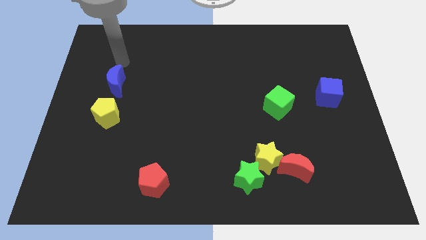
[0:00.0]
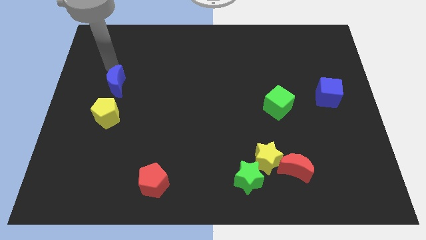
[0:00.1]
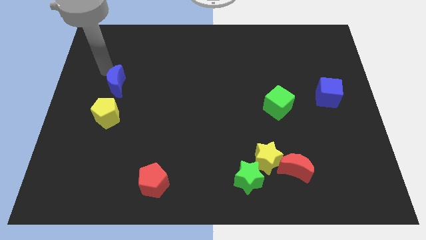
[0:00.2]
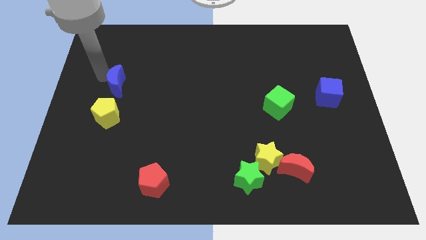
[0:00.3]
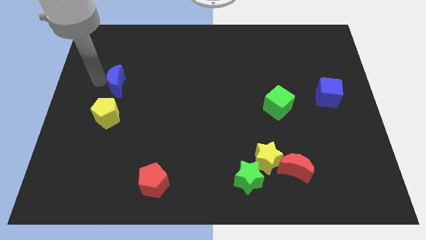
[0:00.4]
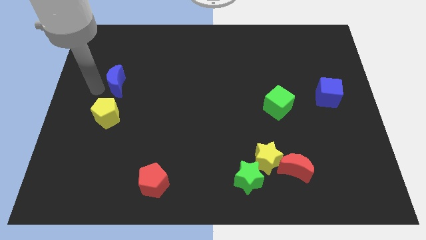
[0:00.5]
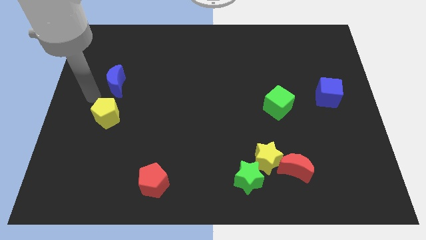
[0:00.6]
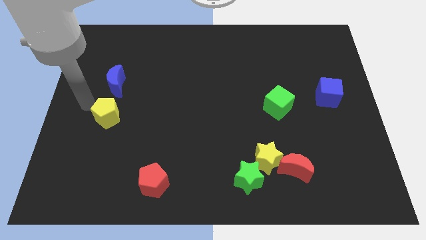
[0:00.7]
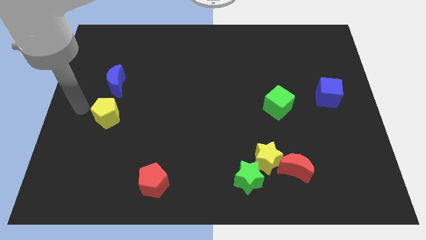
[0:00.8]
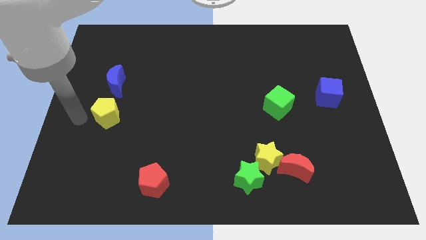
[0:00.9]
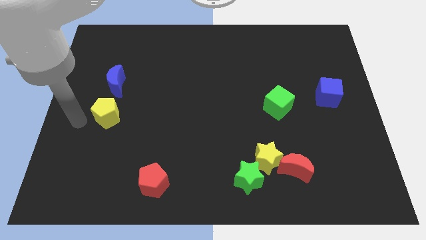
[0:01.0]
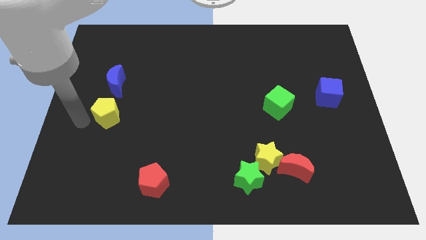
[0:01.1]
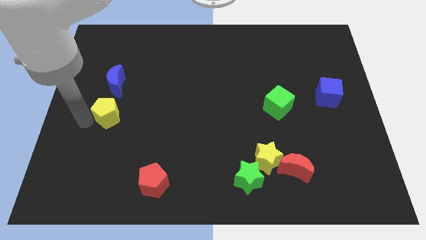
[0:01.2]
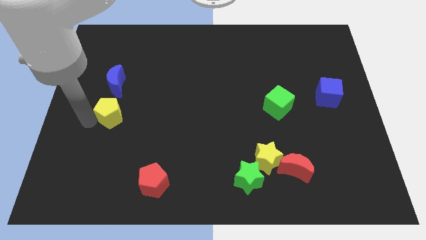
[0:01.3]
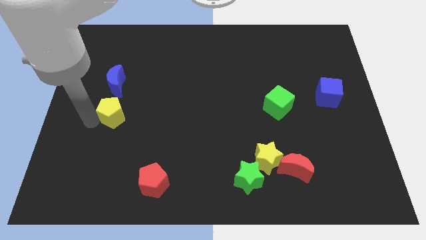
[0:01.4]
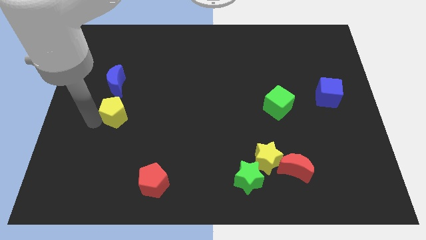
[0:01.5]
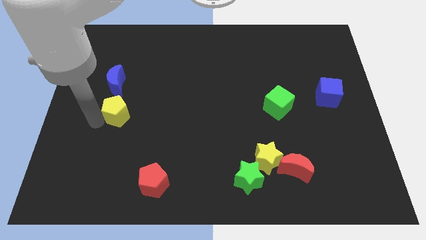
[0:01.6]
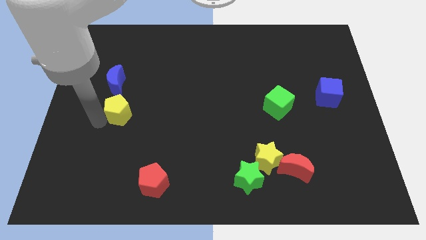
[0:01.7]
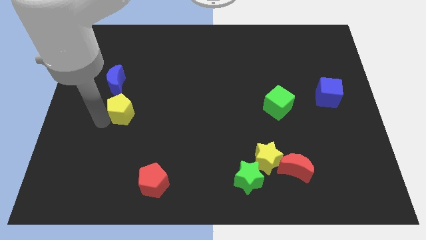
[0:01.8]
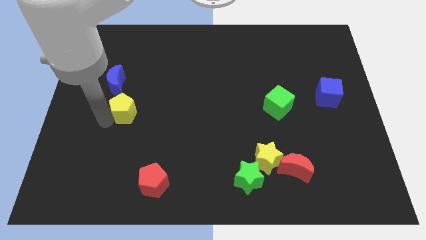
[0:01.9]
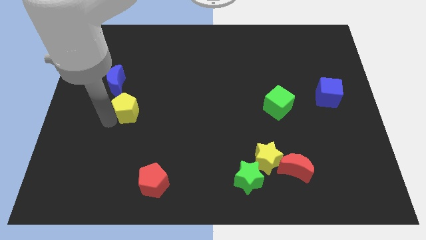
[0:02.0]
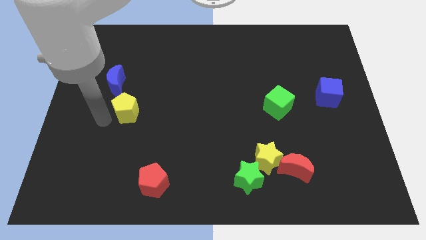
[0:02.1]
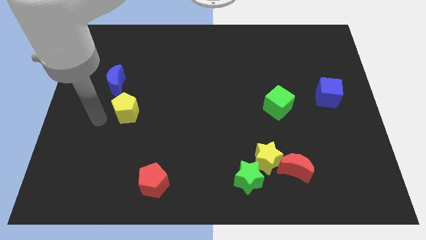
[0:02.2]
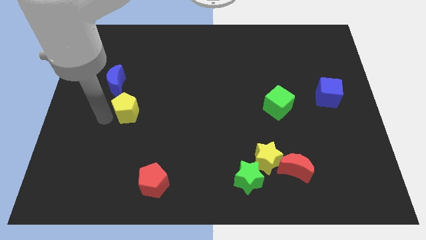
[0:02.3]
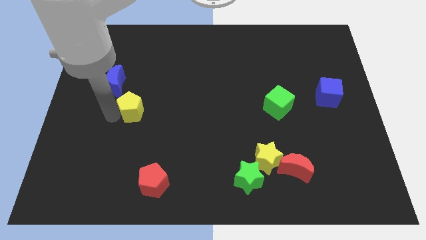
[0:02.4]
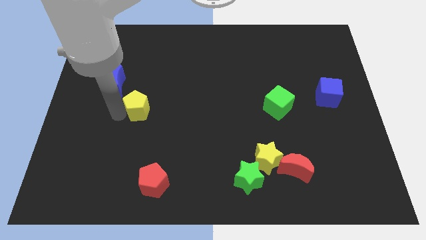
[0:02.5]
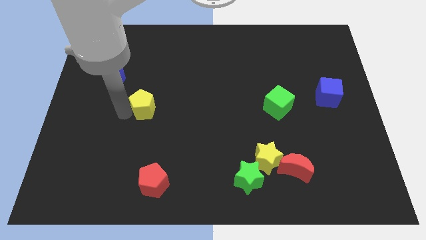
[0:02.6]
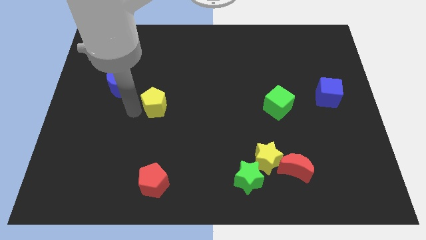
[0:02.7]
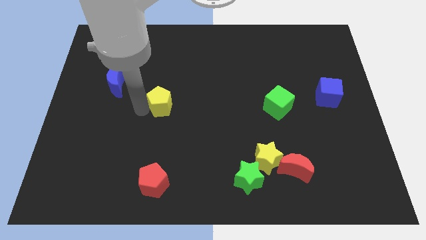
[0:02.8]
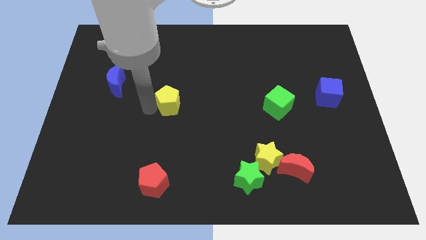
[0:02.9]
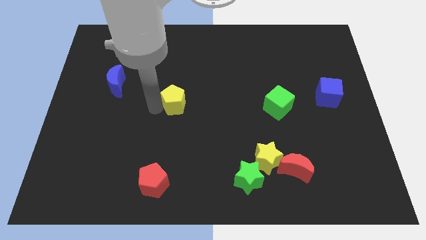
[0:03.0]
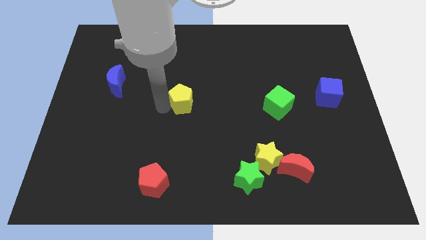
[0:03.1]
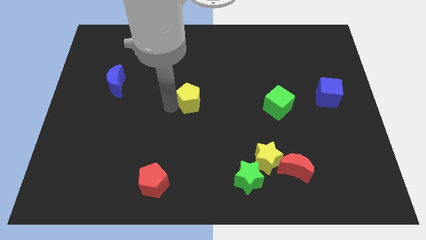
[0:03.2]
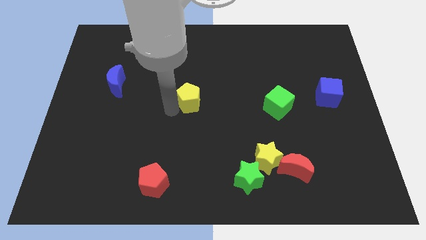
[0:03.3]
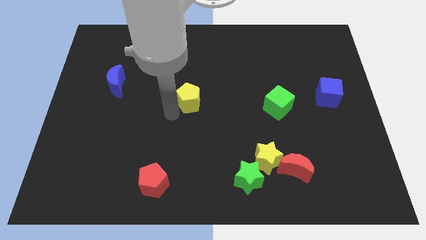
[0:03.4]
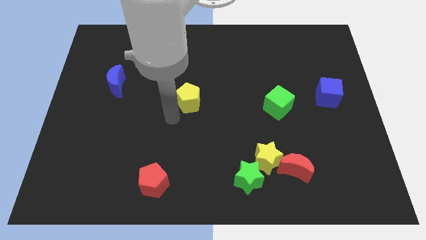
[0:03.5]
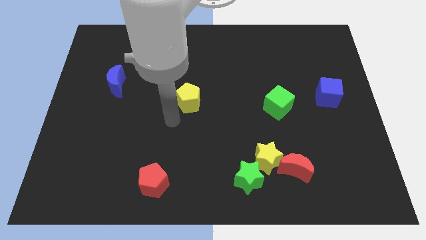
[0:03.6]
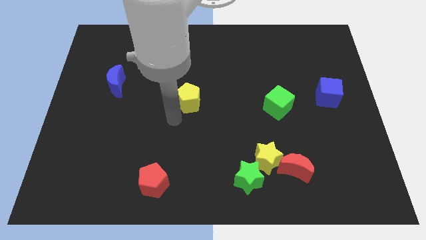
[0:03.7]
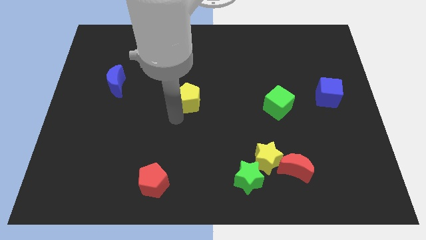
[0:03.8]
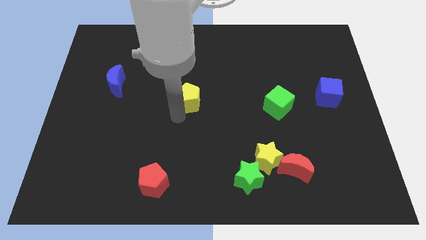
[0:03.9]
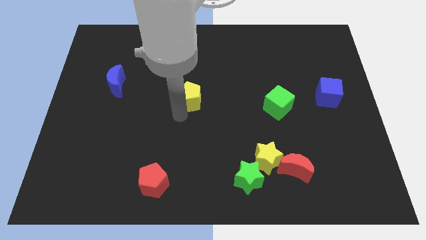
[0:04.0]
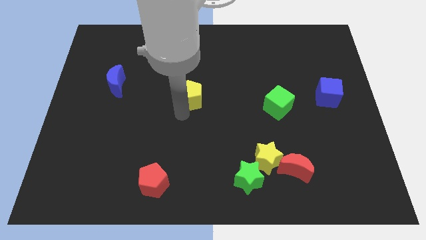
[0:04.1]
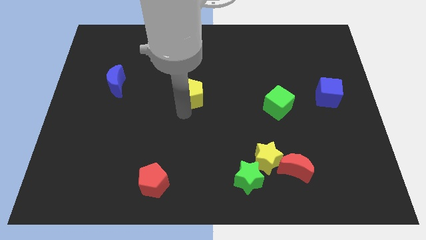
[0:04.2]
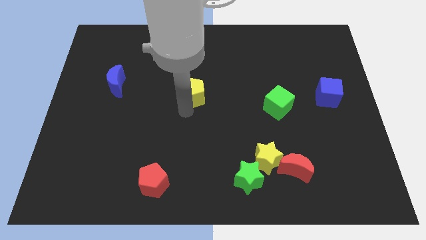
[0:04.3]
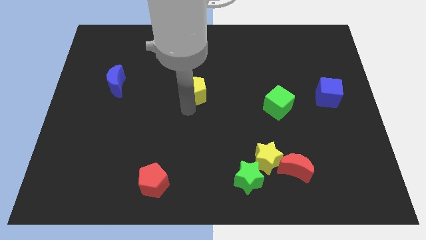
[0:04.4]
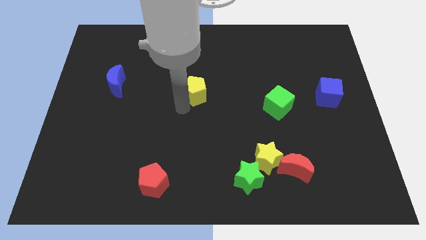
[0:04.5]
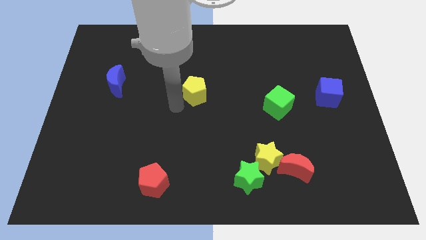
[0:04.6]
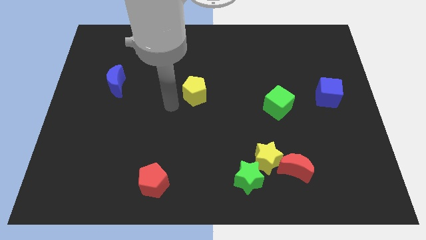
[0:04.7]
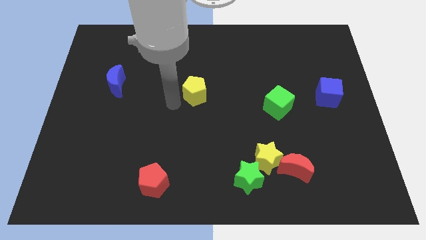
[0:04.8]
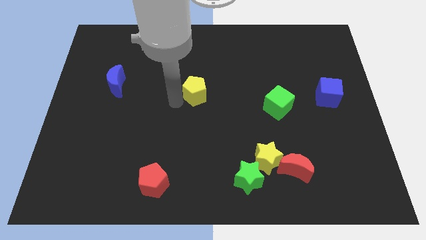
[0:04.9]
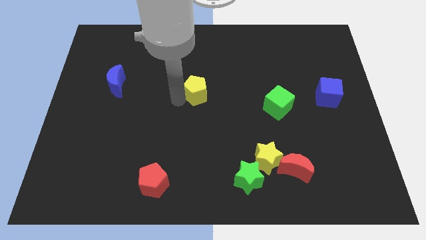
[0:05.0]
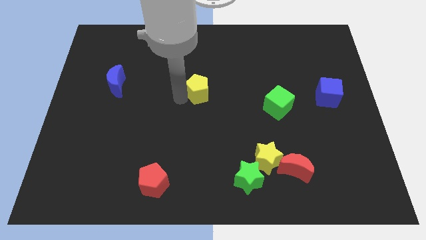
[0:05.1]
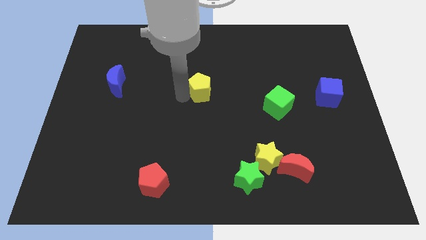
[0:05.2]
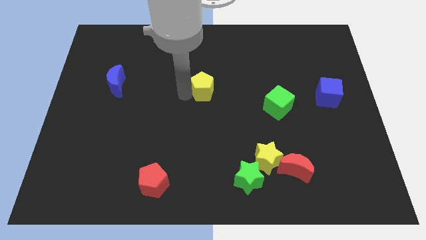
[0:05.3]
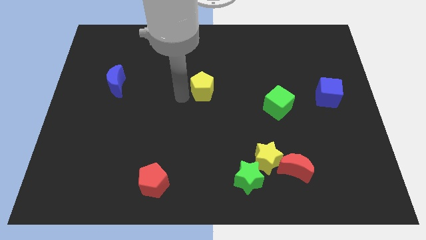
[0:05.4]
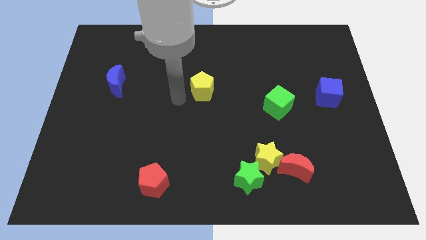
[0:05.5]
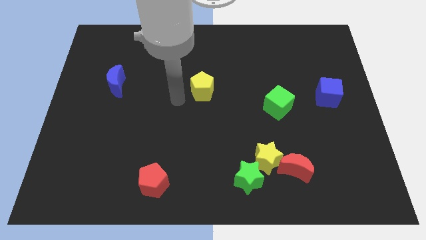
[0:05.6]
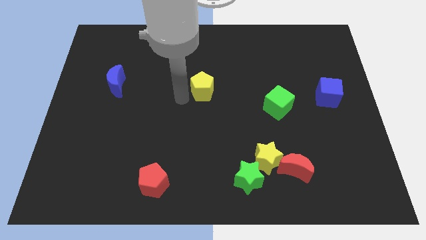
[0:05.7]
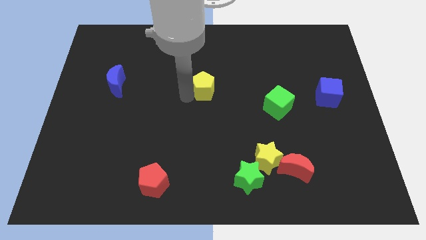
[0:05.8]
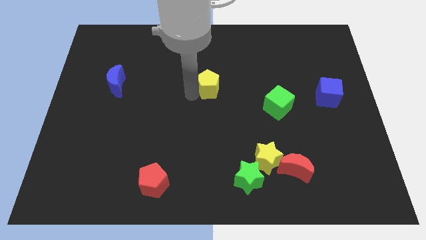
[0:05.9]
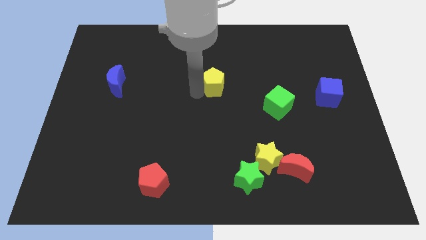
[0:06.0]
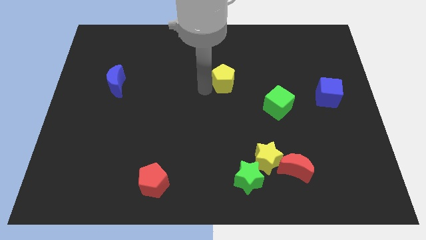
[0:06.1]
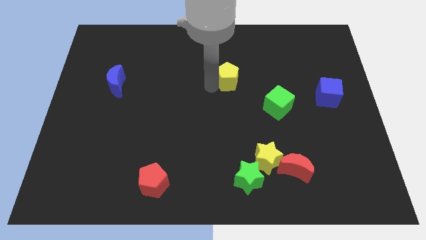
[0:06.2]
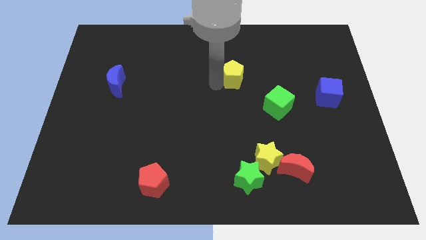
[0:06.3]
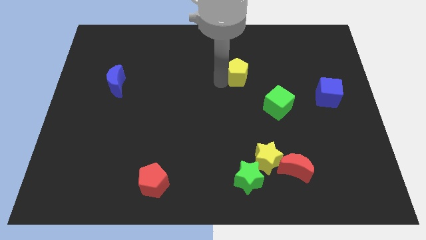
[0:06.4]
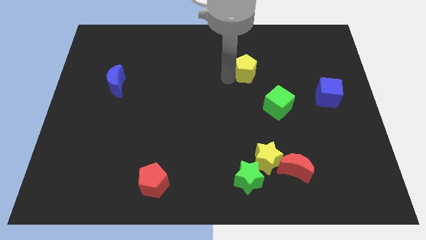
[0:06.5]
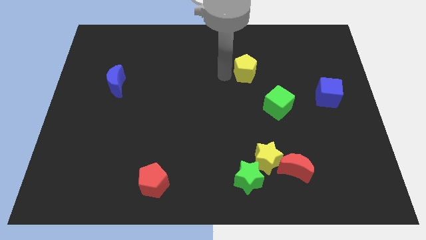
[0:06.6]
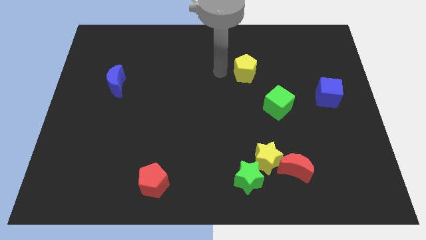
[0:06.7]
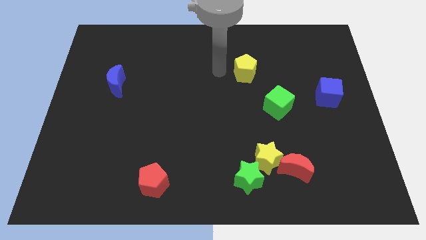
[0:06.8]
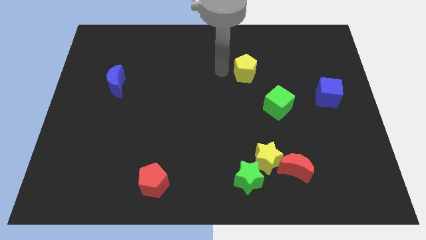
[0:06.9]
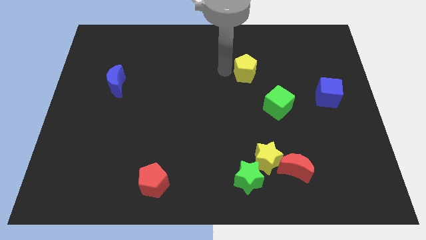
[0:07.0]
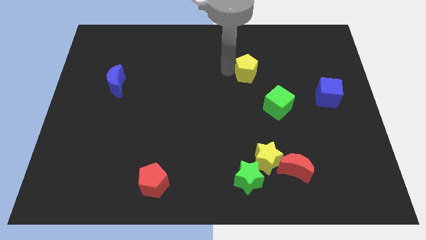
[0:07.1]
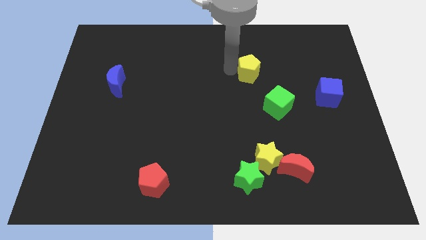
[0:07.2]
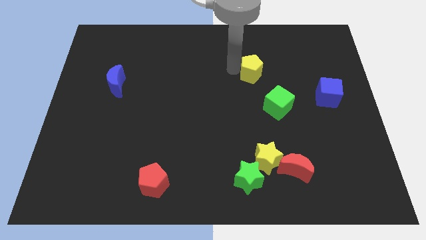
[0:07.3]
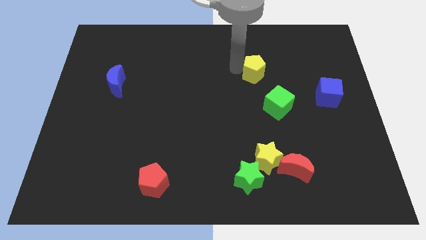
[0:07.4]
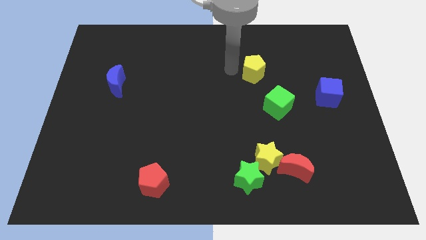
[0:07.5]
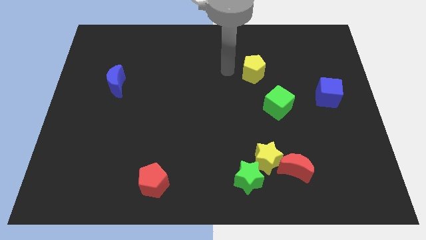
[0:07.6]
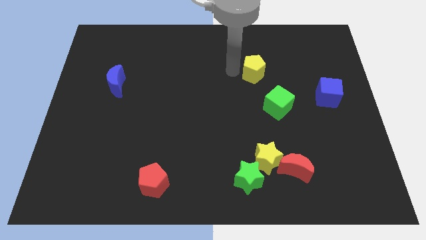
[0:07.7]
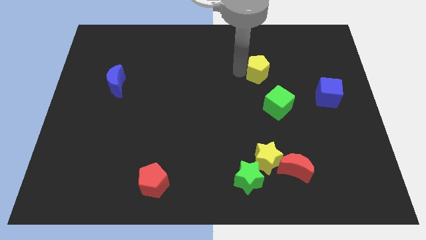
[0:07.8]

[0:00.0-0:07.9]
slide the yellow pentagon to the top of the green cube
